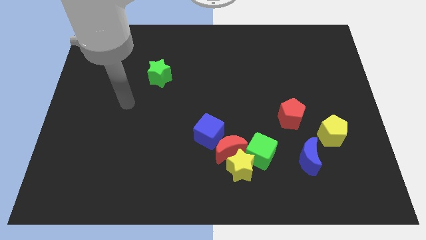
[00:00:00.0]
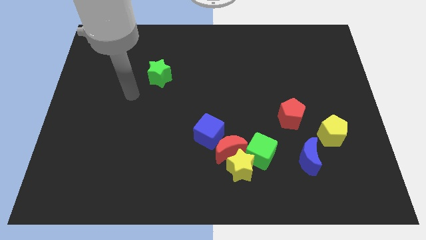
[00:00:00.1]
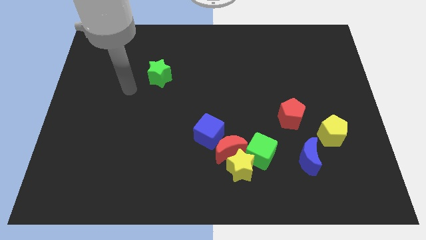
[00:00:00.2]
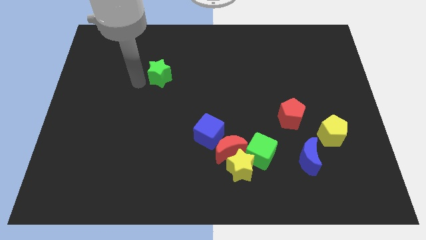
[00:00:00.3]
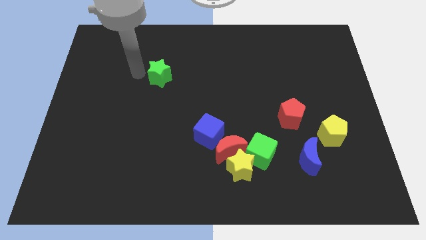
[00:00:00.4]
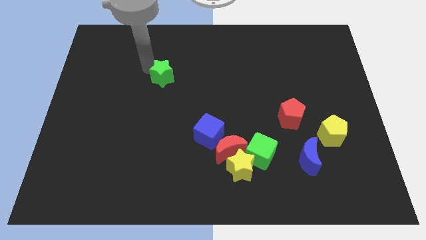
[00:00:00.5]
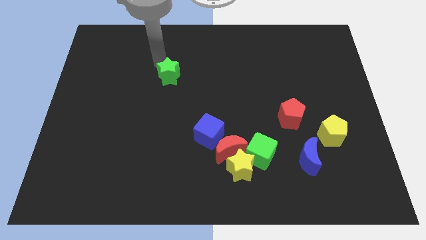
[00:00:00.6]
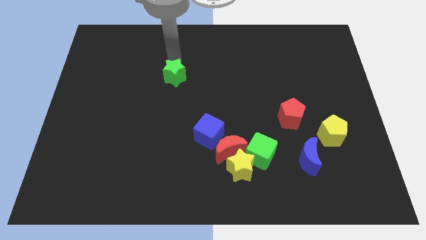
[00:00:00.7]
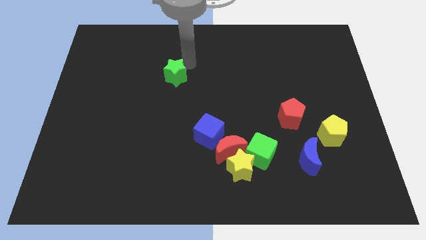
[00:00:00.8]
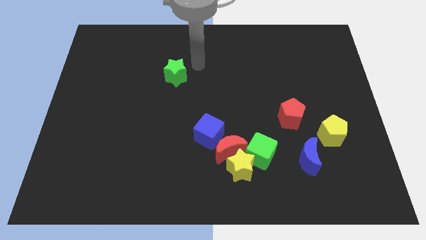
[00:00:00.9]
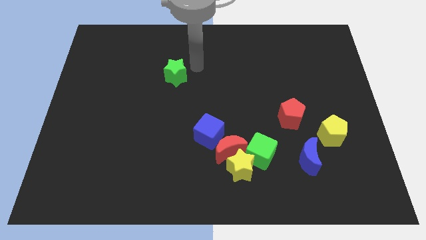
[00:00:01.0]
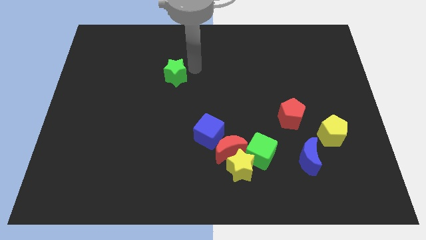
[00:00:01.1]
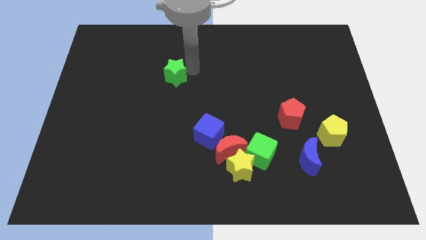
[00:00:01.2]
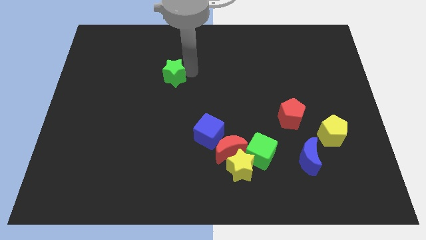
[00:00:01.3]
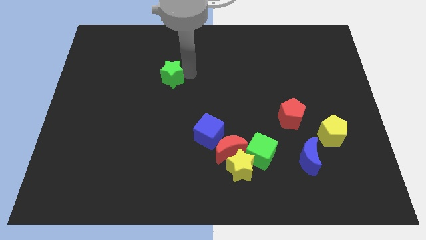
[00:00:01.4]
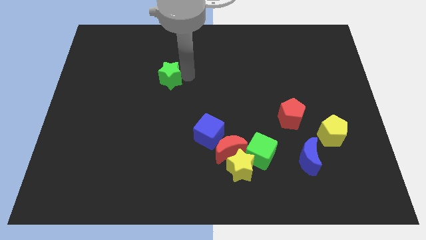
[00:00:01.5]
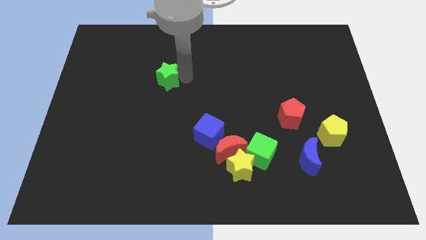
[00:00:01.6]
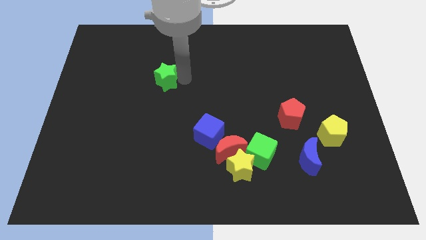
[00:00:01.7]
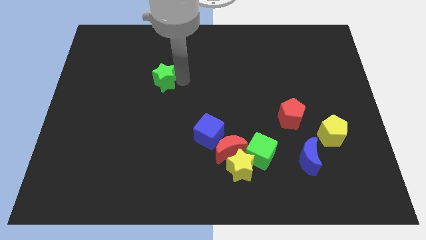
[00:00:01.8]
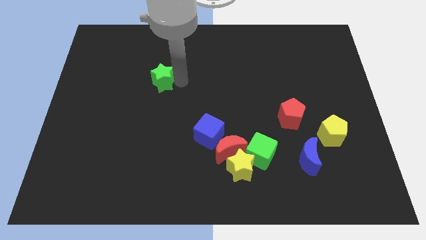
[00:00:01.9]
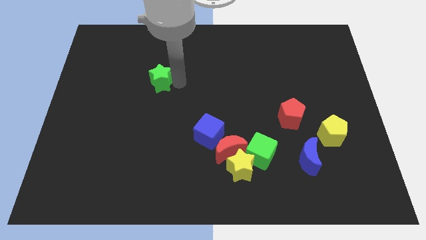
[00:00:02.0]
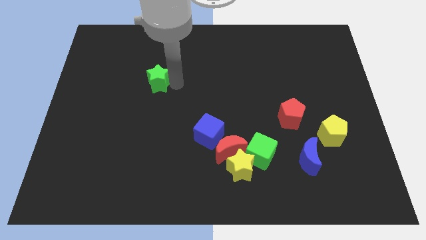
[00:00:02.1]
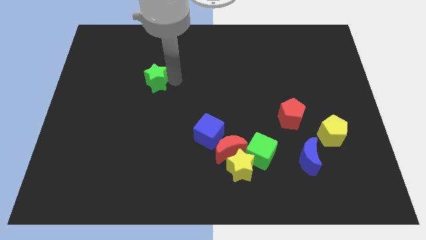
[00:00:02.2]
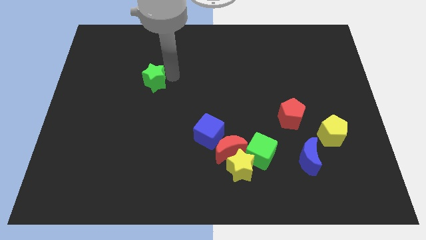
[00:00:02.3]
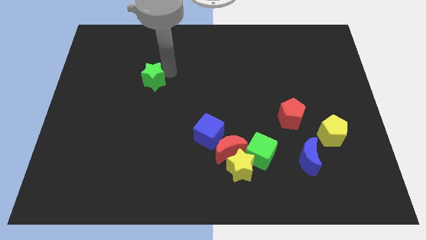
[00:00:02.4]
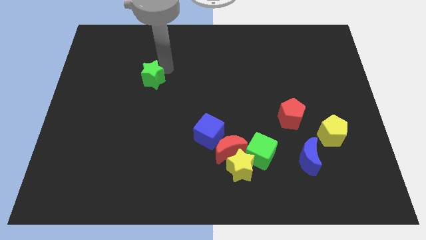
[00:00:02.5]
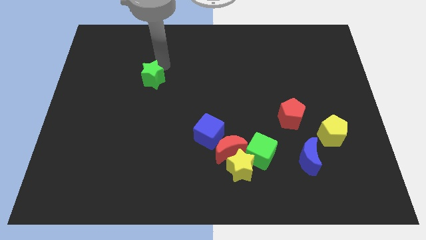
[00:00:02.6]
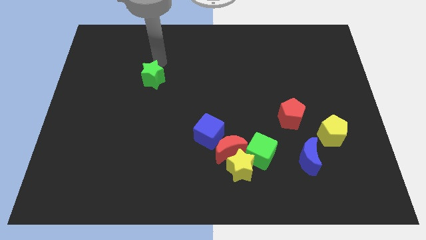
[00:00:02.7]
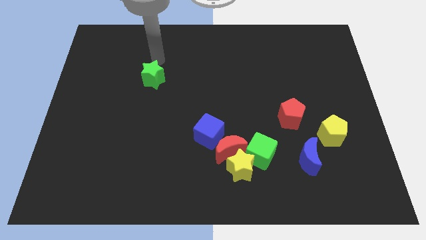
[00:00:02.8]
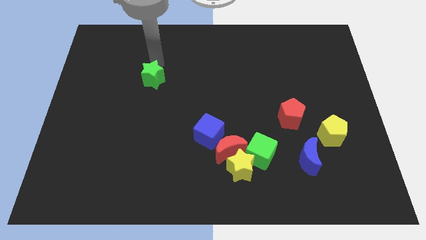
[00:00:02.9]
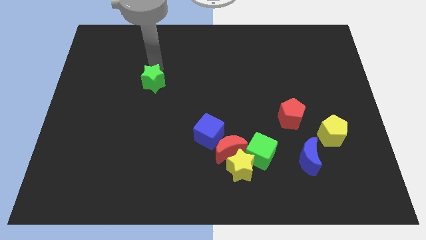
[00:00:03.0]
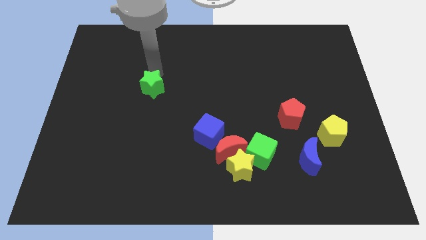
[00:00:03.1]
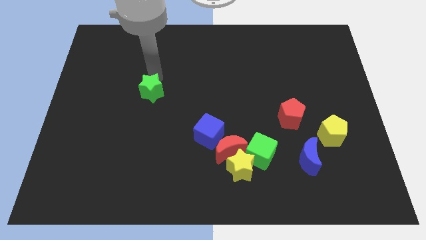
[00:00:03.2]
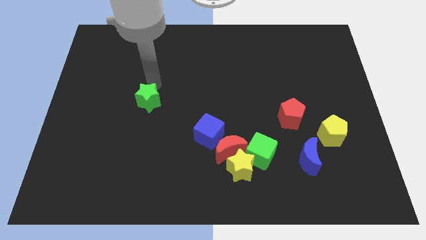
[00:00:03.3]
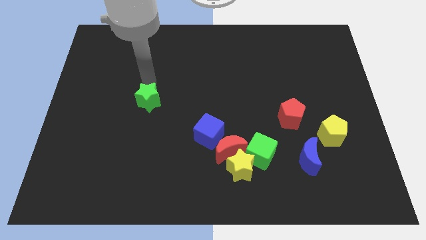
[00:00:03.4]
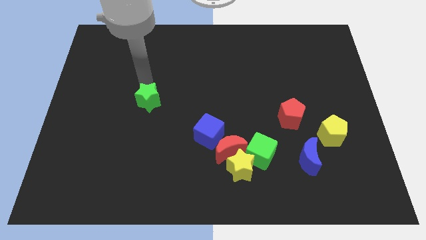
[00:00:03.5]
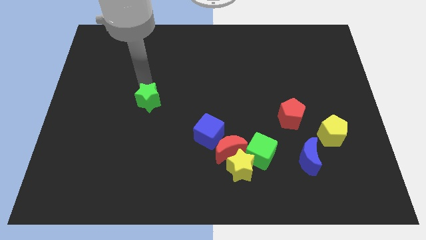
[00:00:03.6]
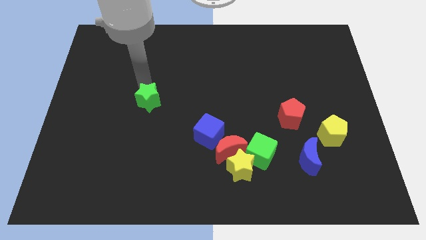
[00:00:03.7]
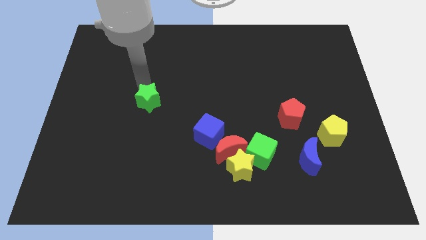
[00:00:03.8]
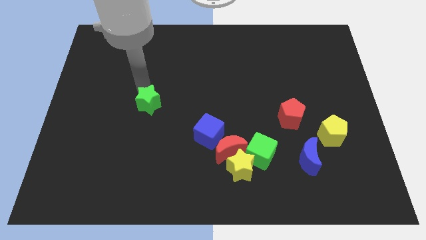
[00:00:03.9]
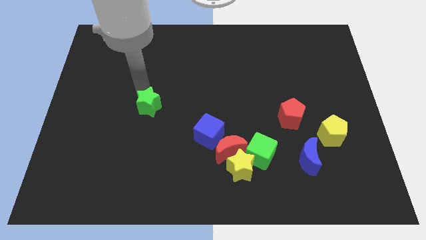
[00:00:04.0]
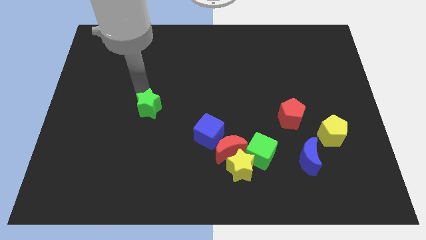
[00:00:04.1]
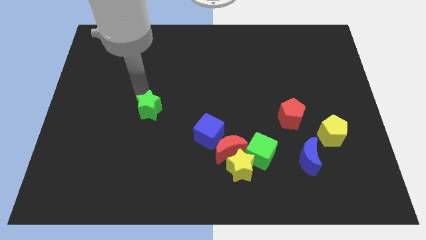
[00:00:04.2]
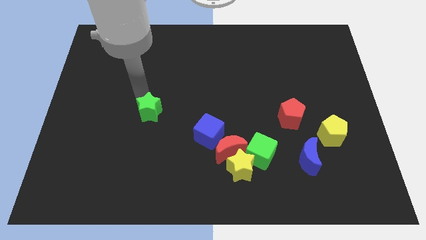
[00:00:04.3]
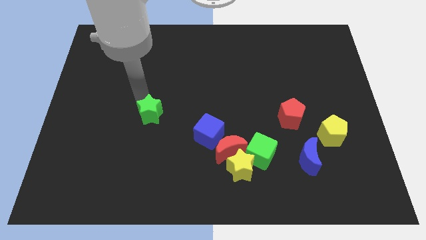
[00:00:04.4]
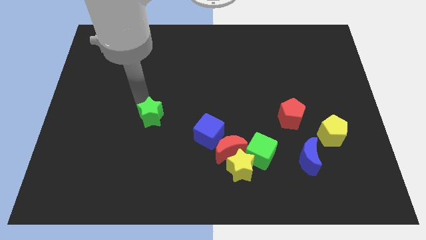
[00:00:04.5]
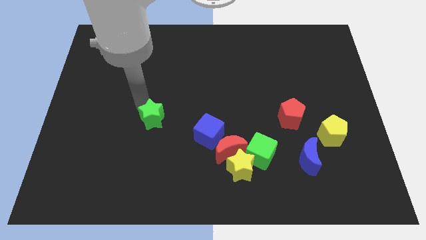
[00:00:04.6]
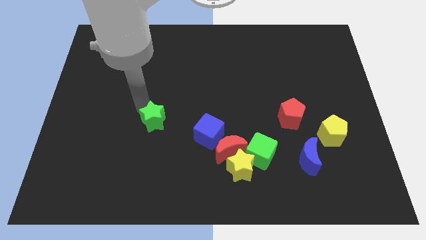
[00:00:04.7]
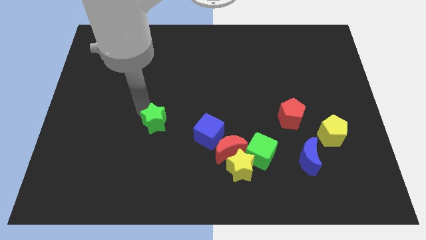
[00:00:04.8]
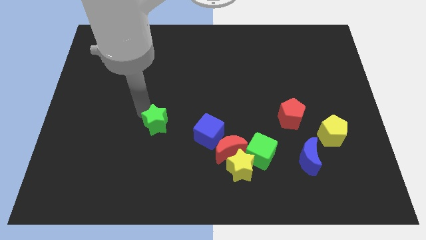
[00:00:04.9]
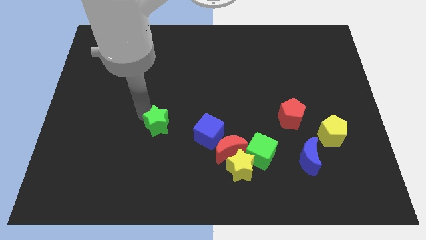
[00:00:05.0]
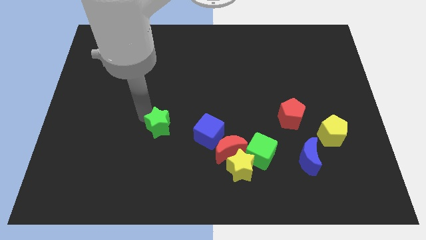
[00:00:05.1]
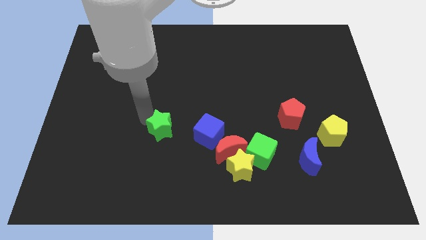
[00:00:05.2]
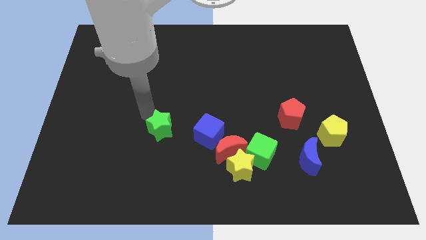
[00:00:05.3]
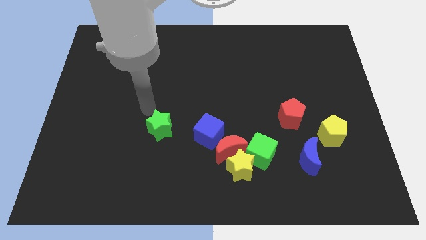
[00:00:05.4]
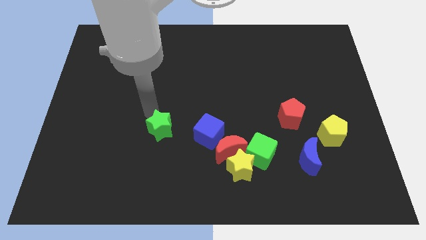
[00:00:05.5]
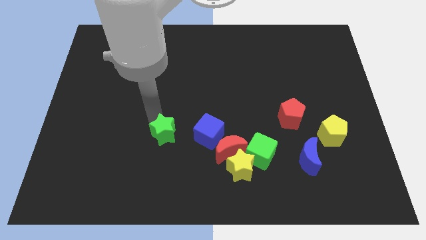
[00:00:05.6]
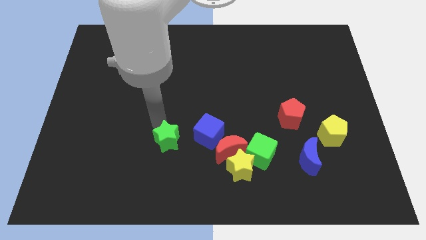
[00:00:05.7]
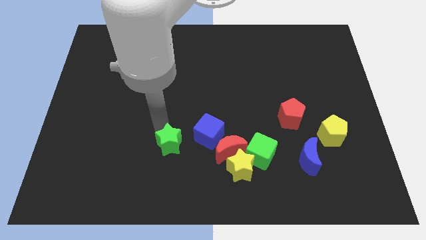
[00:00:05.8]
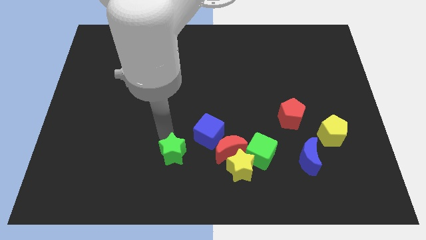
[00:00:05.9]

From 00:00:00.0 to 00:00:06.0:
put the green star to the left side of the yellow star

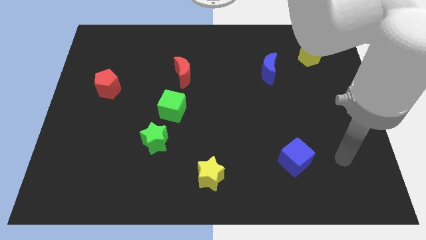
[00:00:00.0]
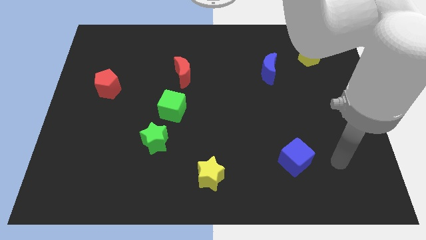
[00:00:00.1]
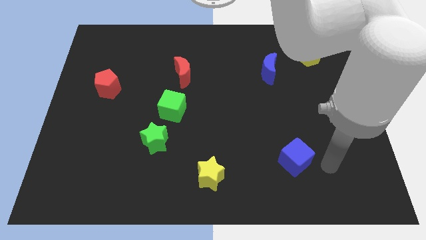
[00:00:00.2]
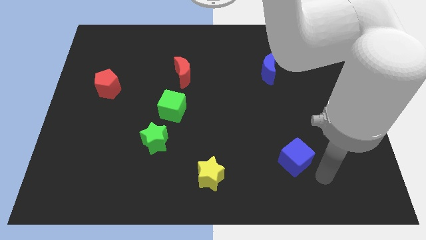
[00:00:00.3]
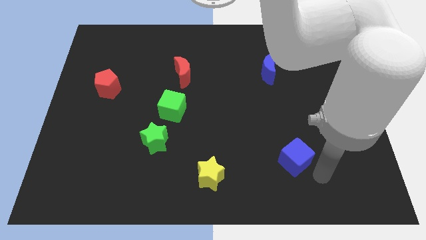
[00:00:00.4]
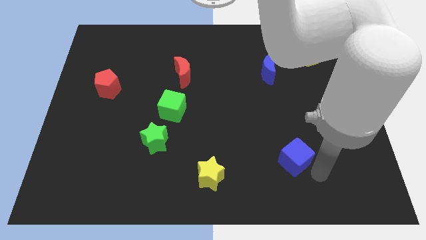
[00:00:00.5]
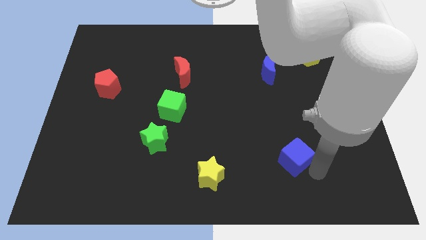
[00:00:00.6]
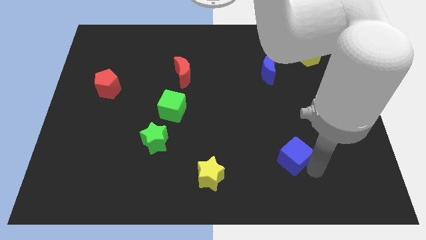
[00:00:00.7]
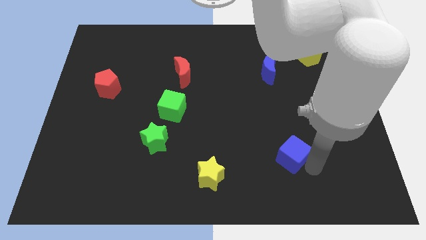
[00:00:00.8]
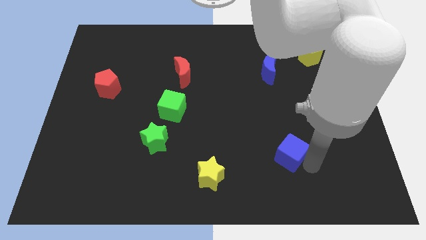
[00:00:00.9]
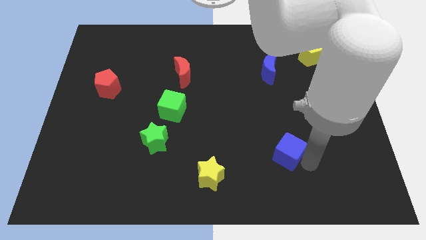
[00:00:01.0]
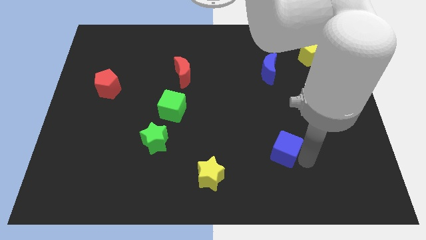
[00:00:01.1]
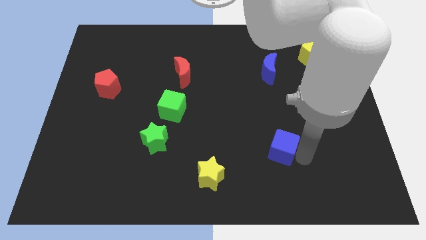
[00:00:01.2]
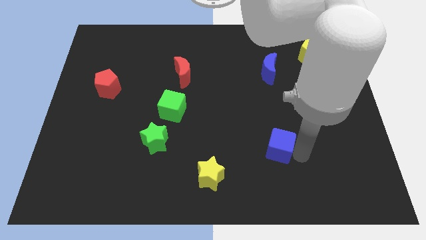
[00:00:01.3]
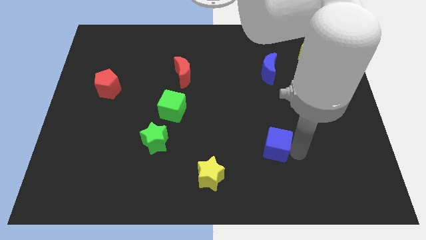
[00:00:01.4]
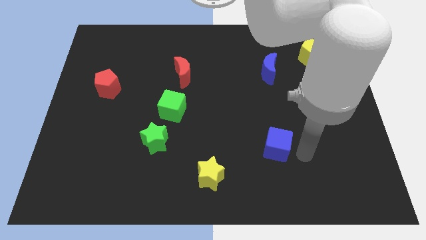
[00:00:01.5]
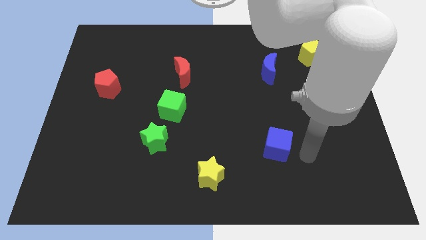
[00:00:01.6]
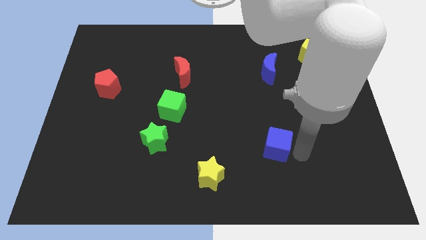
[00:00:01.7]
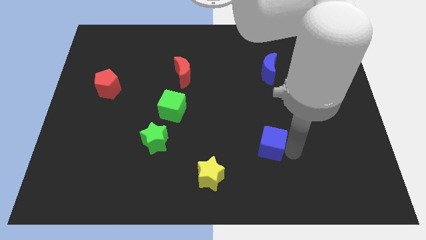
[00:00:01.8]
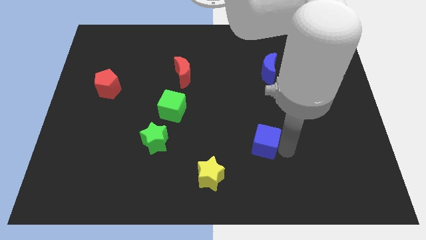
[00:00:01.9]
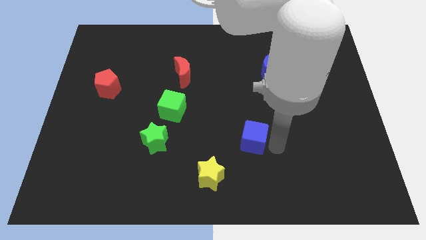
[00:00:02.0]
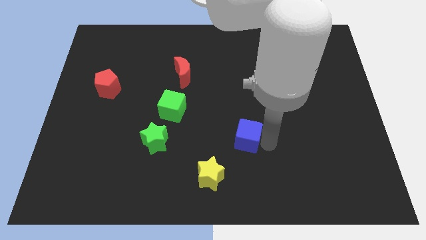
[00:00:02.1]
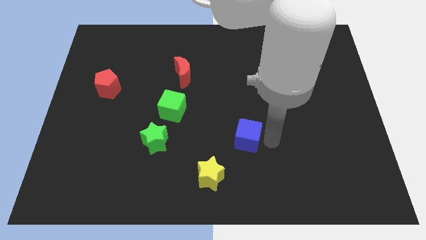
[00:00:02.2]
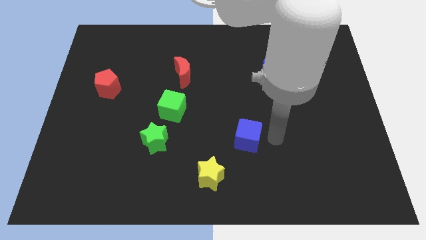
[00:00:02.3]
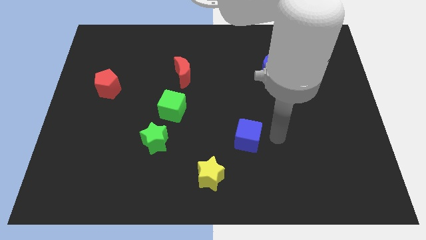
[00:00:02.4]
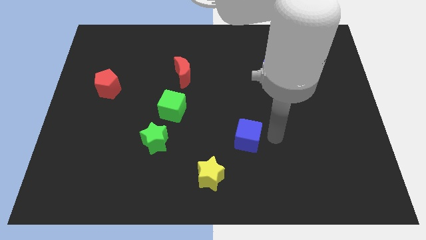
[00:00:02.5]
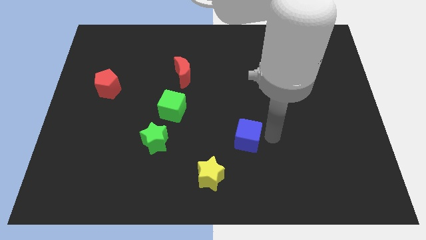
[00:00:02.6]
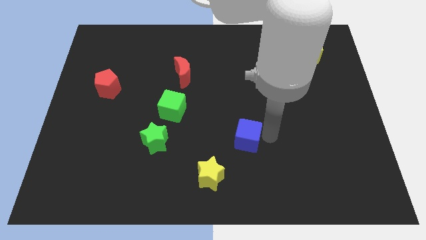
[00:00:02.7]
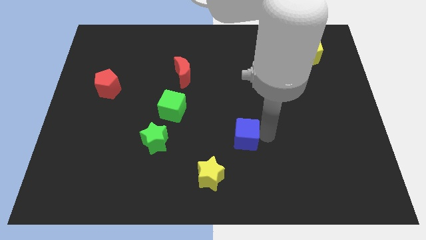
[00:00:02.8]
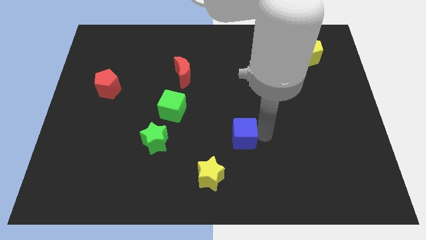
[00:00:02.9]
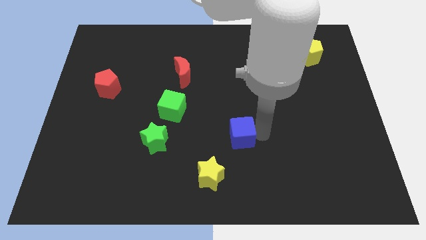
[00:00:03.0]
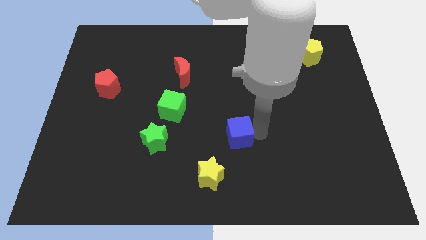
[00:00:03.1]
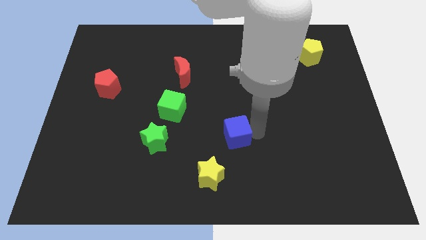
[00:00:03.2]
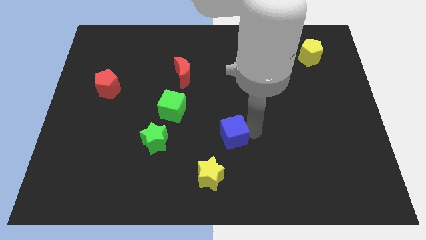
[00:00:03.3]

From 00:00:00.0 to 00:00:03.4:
put the blue cube to the top of the yellow star
